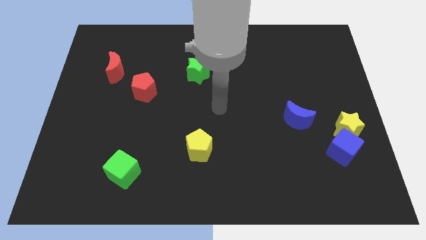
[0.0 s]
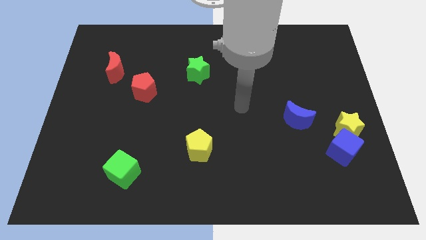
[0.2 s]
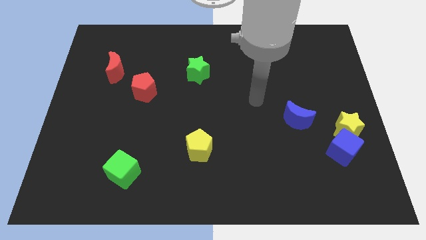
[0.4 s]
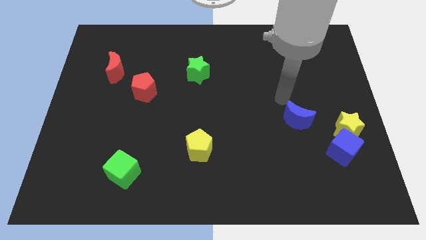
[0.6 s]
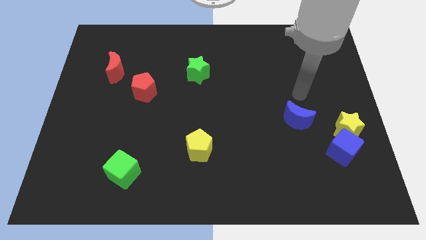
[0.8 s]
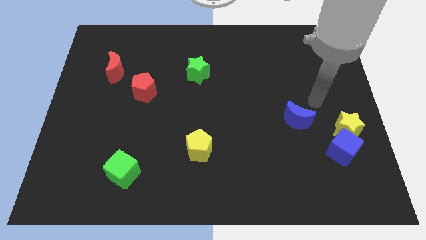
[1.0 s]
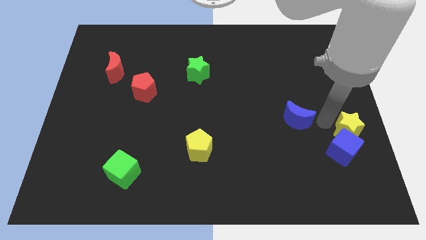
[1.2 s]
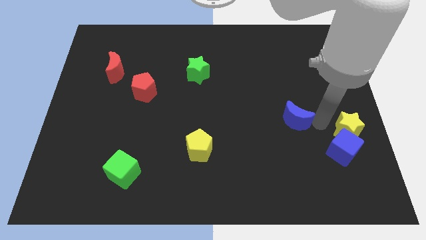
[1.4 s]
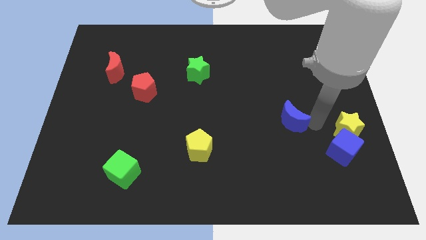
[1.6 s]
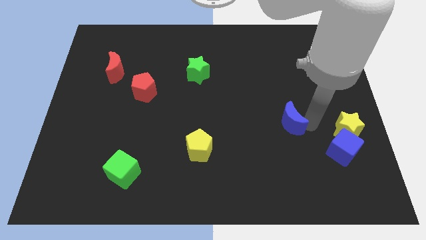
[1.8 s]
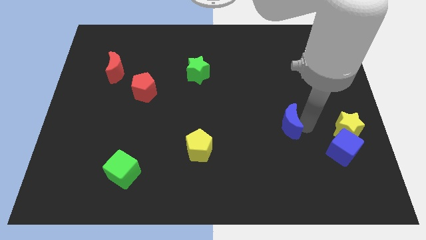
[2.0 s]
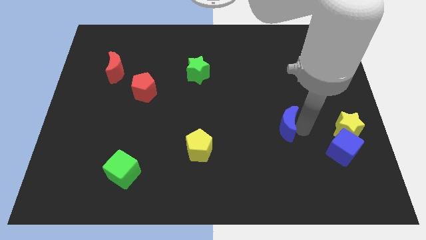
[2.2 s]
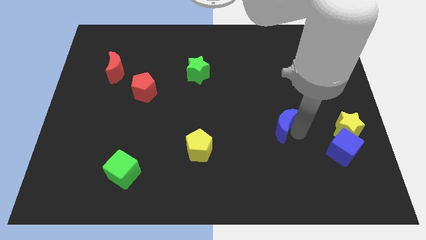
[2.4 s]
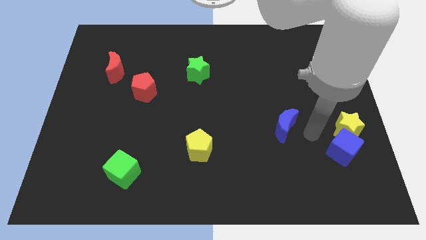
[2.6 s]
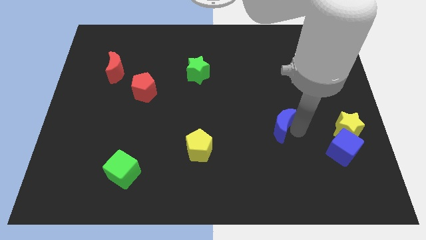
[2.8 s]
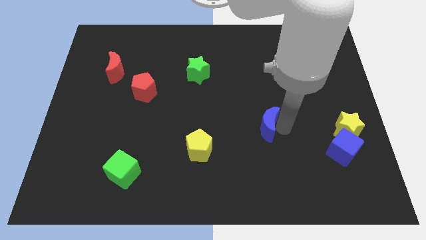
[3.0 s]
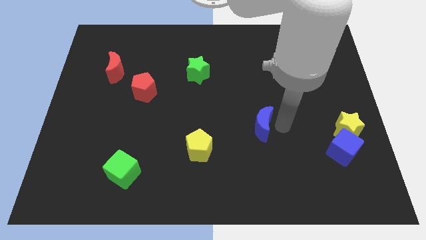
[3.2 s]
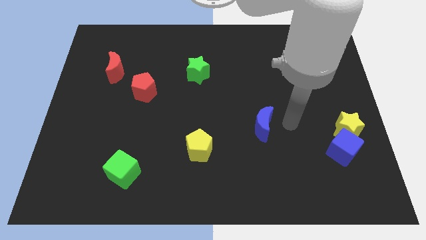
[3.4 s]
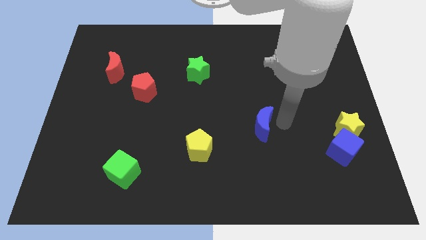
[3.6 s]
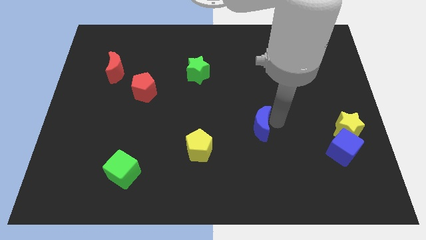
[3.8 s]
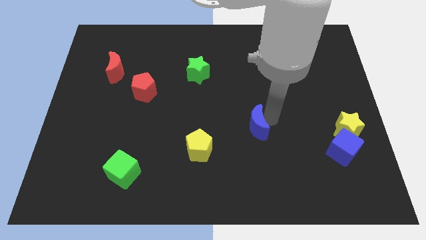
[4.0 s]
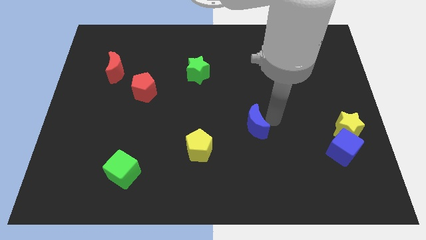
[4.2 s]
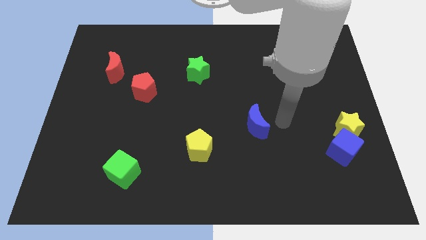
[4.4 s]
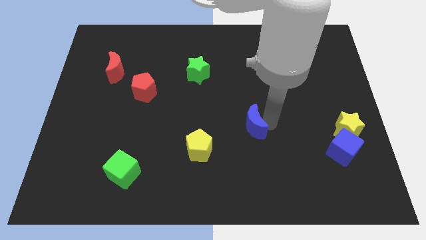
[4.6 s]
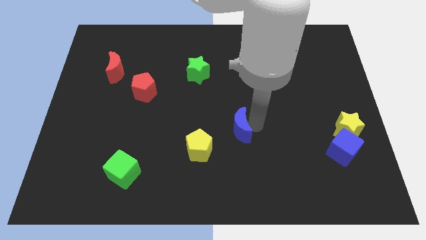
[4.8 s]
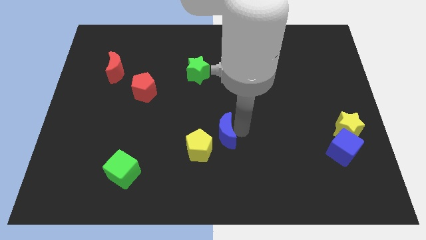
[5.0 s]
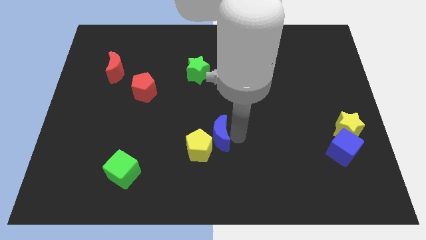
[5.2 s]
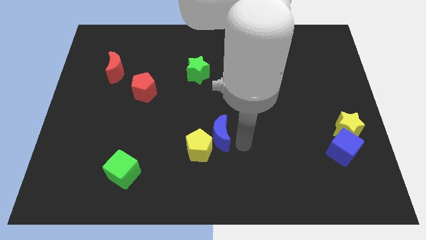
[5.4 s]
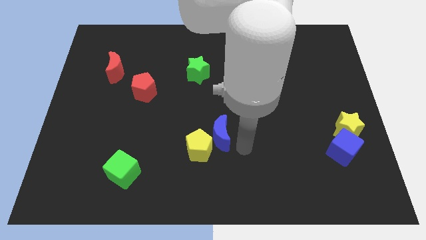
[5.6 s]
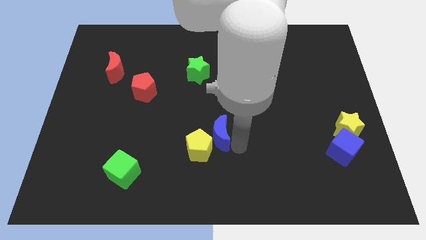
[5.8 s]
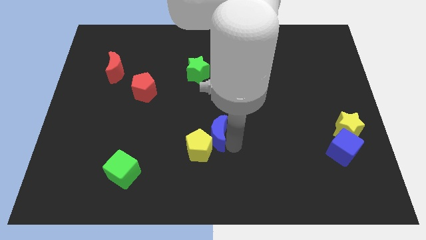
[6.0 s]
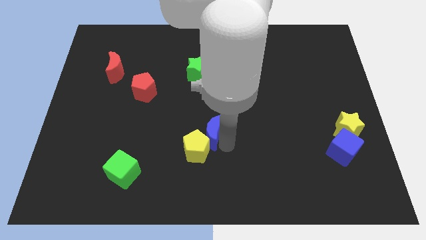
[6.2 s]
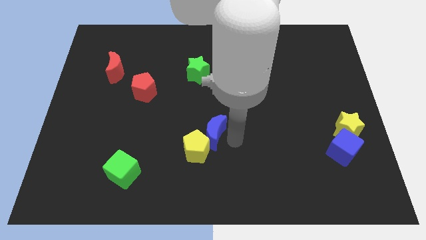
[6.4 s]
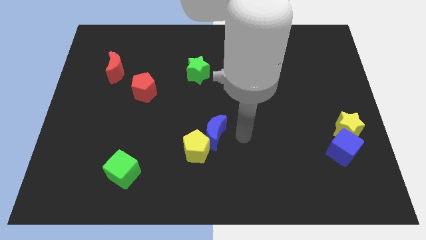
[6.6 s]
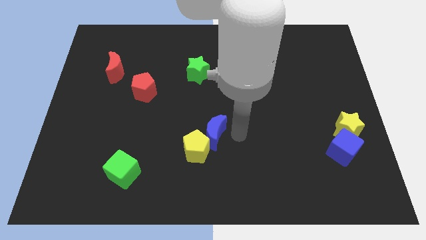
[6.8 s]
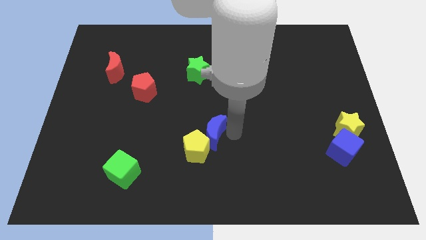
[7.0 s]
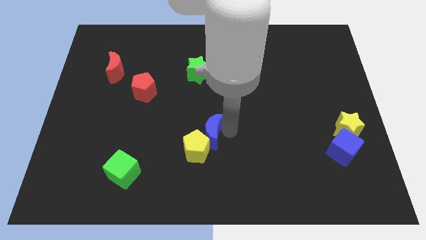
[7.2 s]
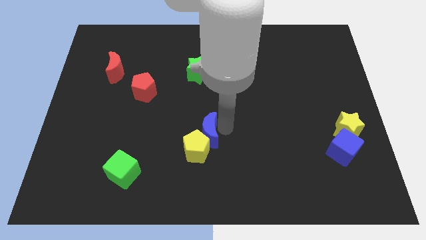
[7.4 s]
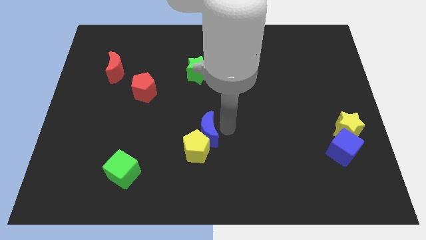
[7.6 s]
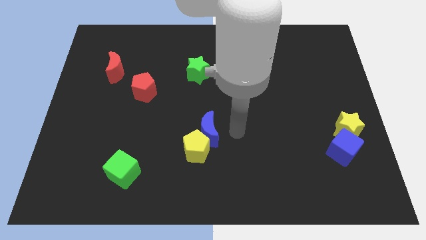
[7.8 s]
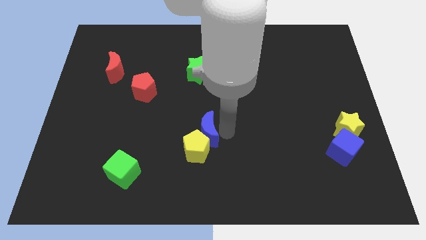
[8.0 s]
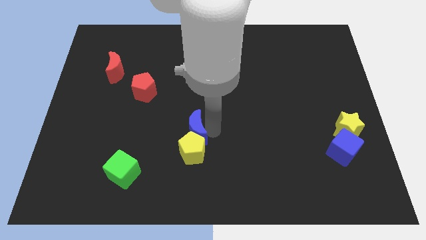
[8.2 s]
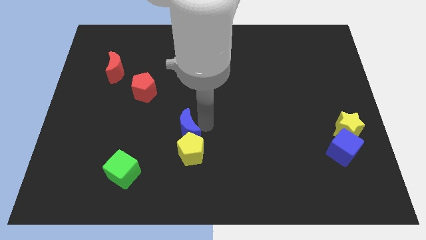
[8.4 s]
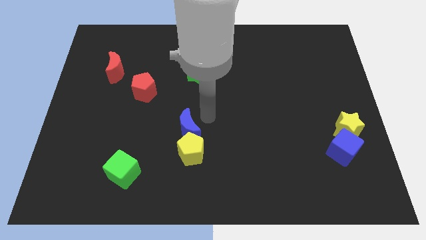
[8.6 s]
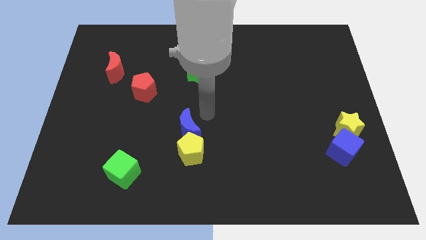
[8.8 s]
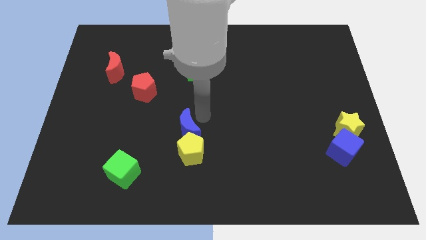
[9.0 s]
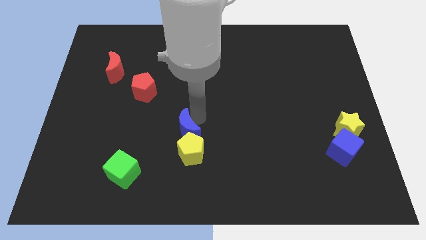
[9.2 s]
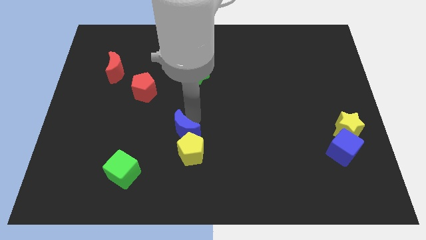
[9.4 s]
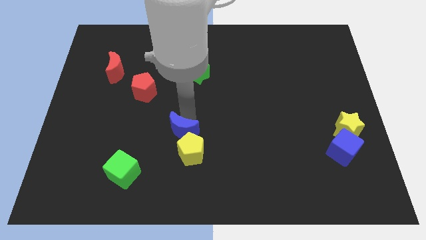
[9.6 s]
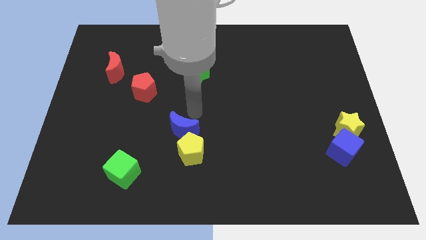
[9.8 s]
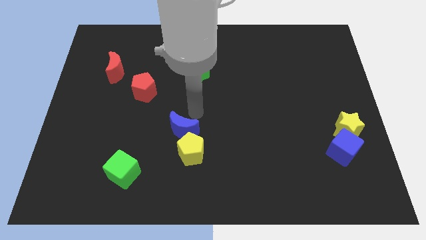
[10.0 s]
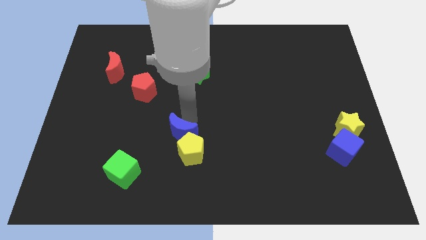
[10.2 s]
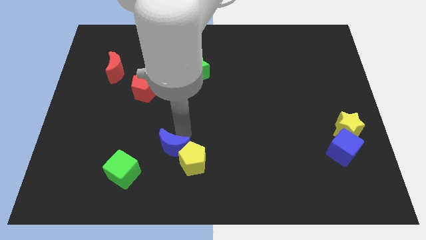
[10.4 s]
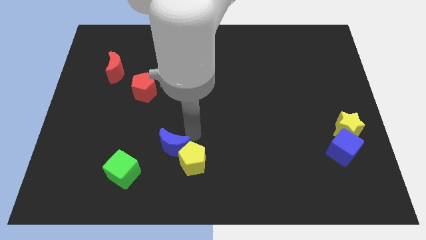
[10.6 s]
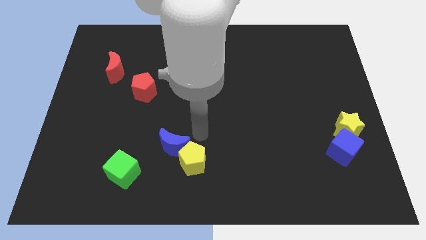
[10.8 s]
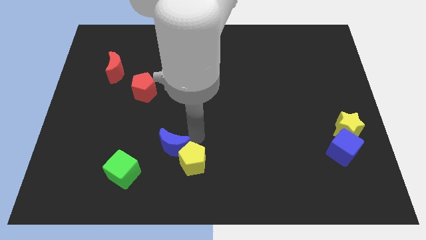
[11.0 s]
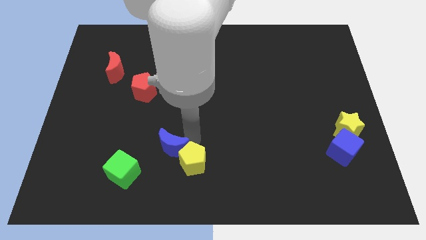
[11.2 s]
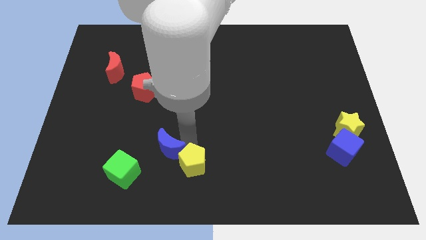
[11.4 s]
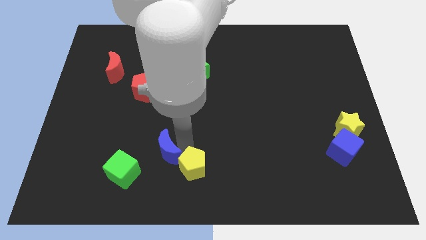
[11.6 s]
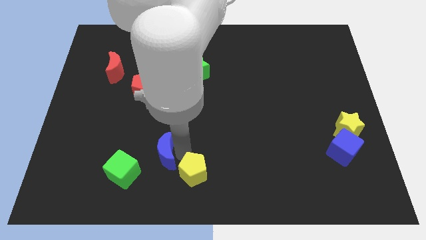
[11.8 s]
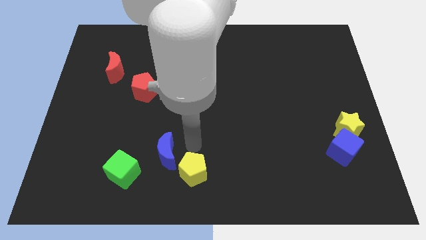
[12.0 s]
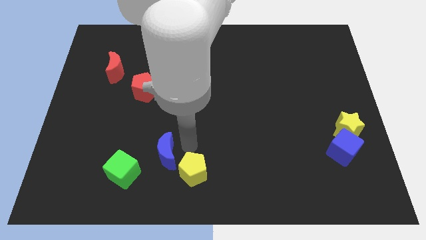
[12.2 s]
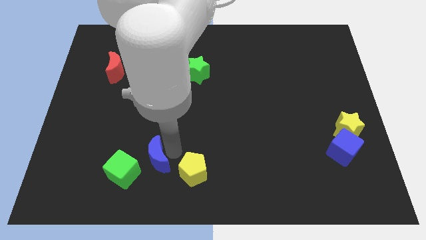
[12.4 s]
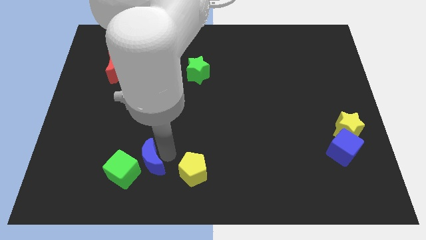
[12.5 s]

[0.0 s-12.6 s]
move the blue moon towards the green cube

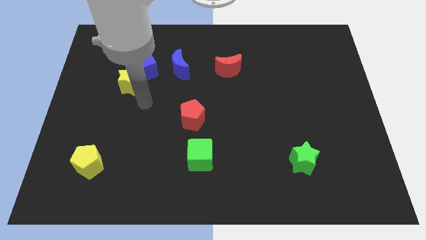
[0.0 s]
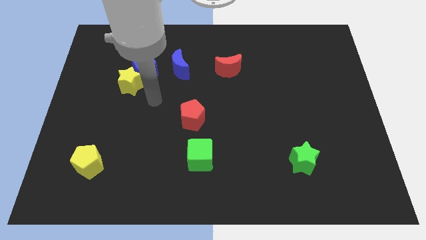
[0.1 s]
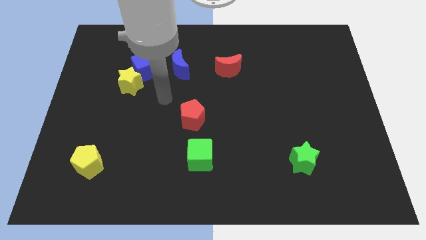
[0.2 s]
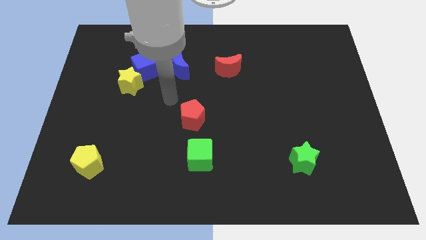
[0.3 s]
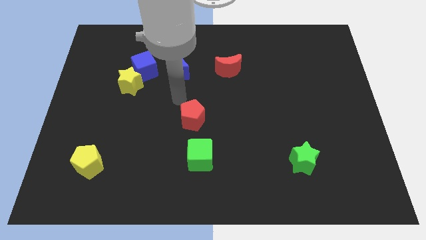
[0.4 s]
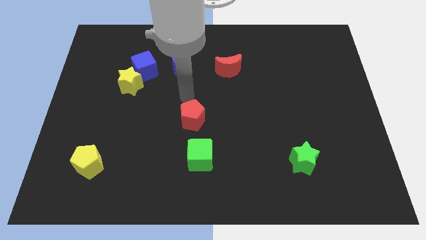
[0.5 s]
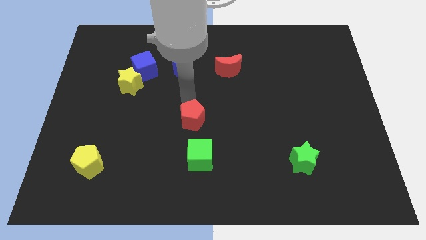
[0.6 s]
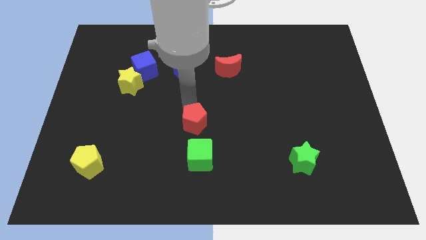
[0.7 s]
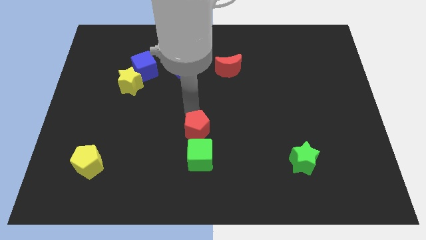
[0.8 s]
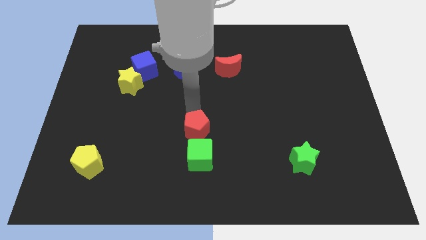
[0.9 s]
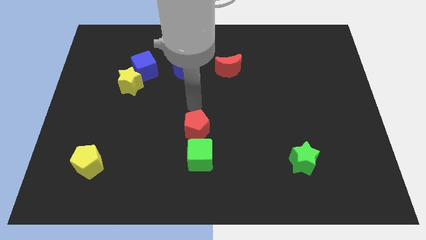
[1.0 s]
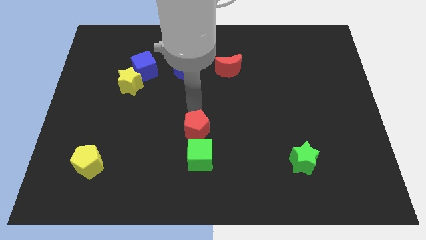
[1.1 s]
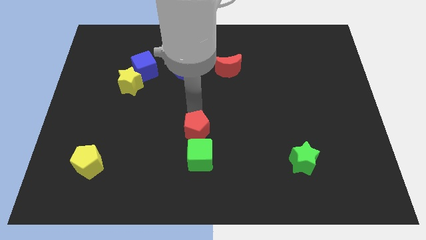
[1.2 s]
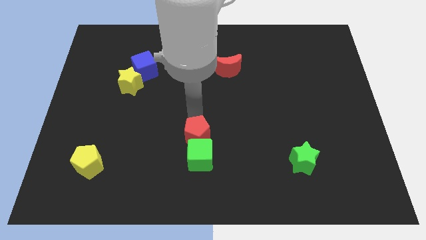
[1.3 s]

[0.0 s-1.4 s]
put the red pentagon next to the green cube

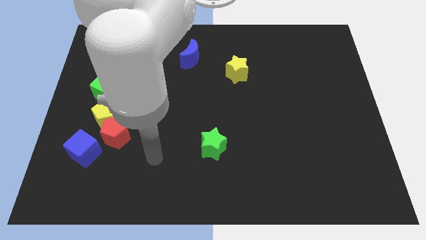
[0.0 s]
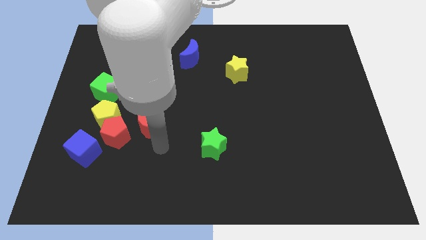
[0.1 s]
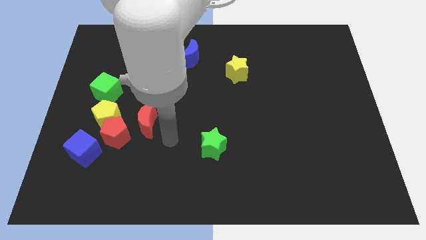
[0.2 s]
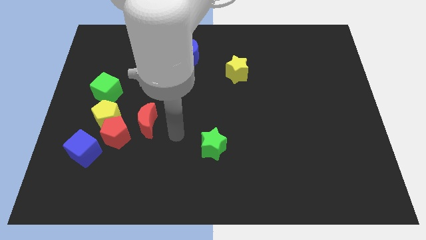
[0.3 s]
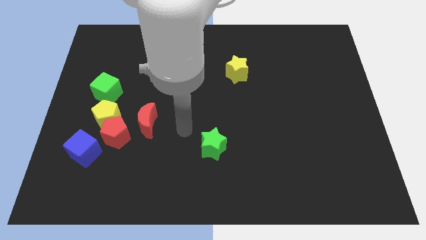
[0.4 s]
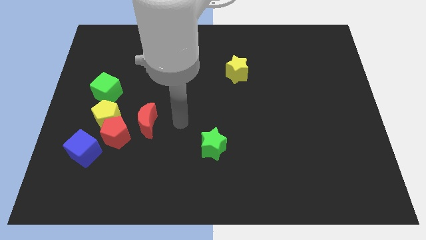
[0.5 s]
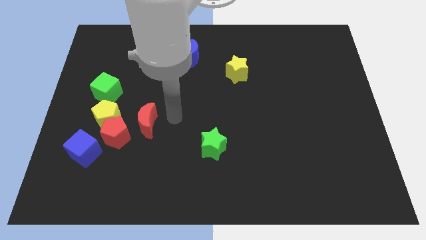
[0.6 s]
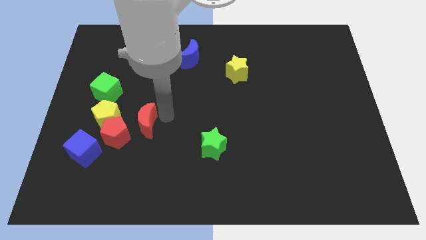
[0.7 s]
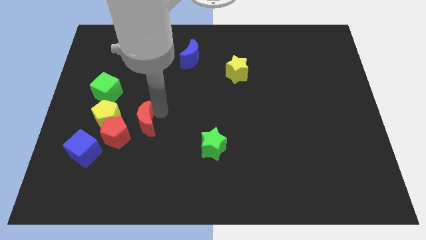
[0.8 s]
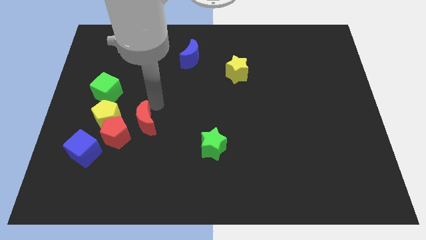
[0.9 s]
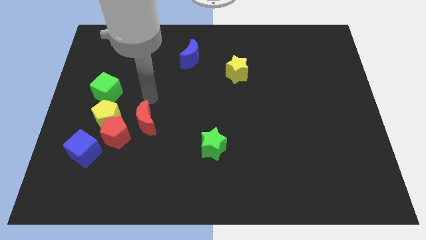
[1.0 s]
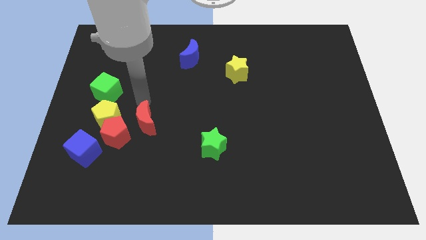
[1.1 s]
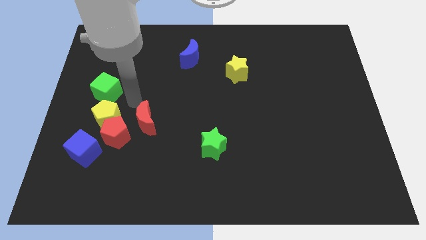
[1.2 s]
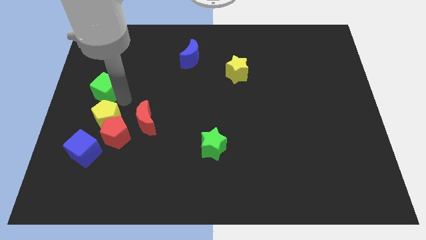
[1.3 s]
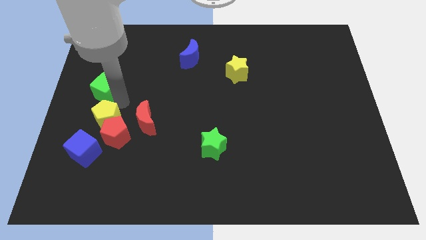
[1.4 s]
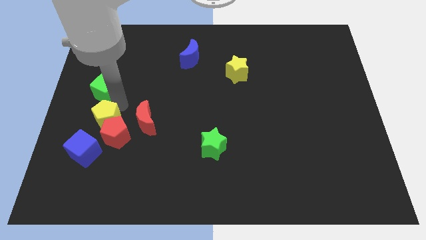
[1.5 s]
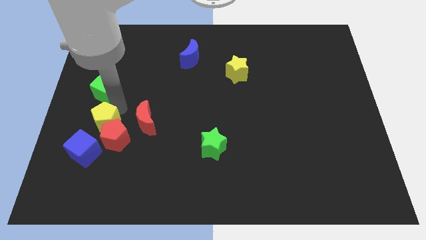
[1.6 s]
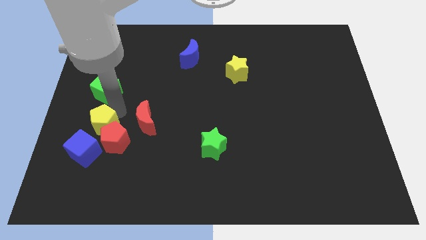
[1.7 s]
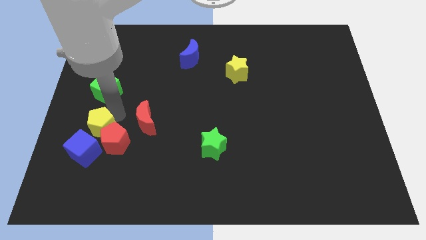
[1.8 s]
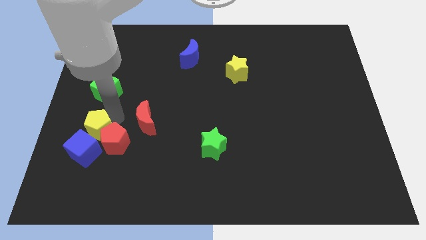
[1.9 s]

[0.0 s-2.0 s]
put the yellow pentagon close to the blue cube
